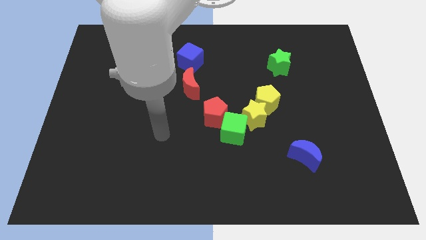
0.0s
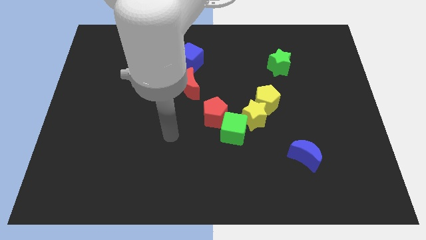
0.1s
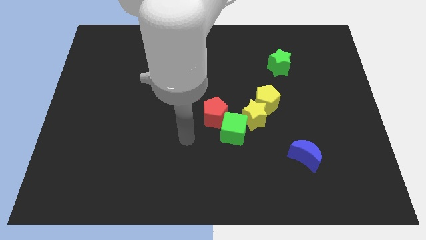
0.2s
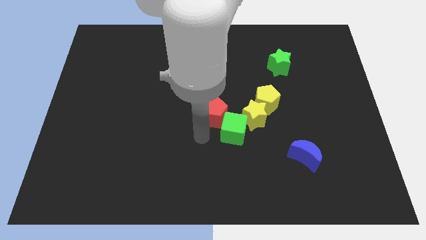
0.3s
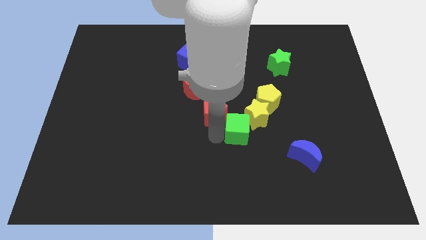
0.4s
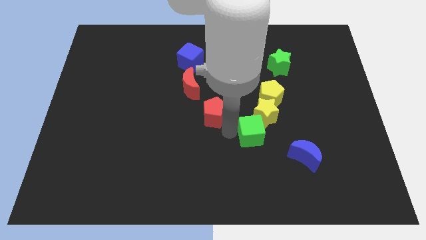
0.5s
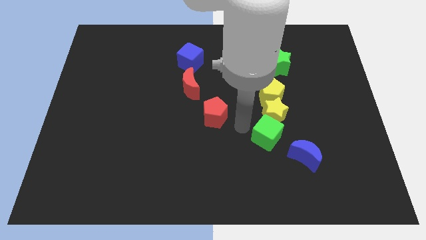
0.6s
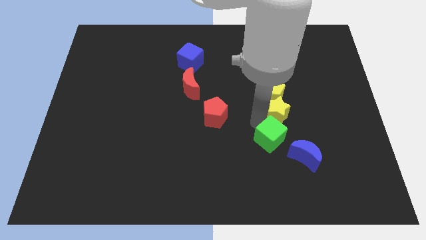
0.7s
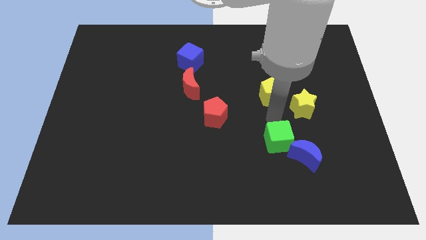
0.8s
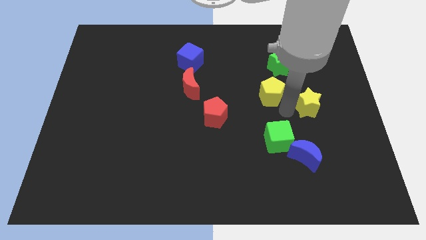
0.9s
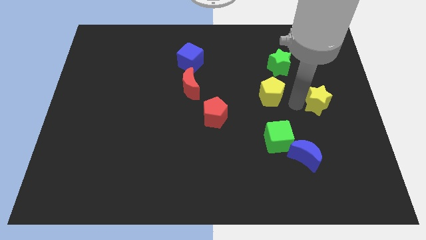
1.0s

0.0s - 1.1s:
move the yellow pentagon away from the yellow star

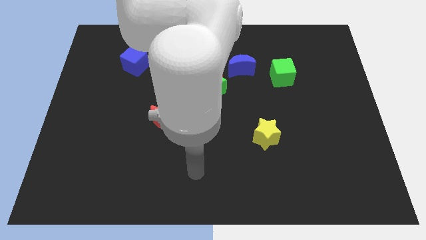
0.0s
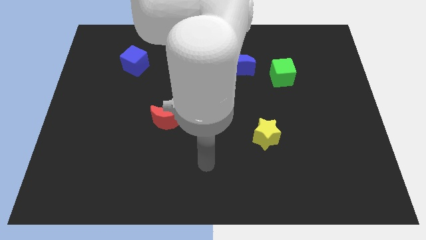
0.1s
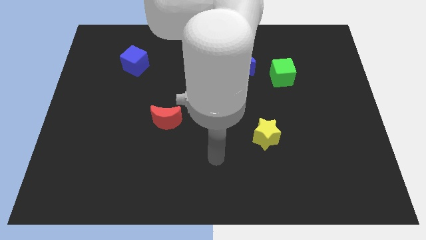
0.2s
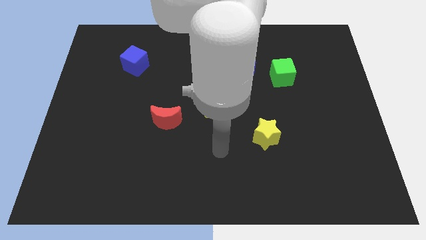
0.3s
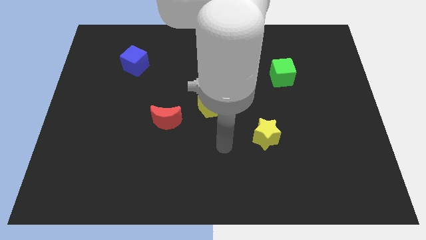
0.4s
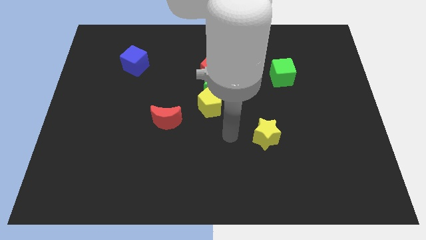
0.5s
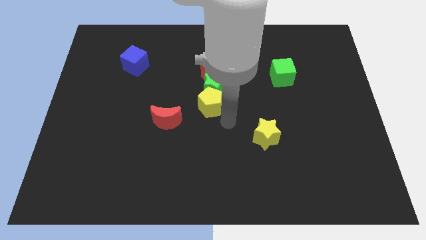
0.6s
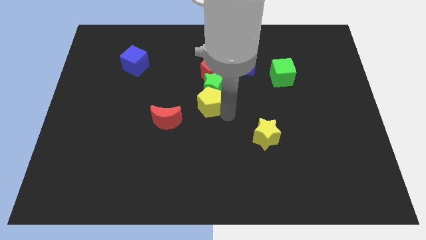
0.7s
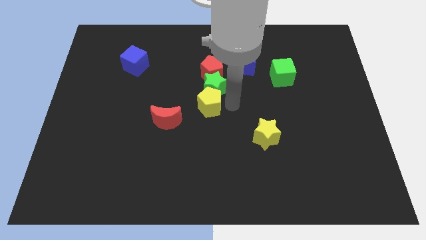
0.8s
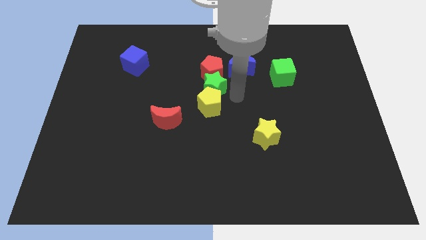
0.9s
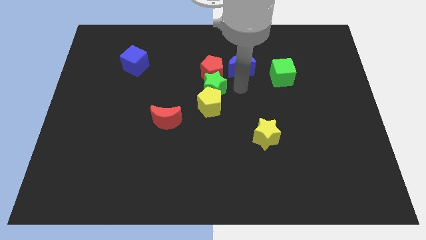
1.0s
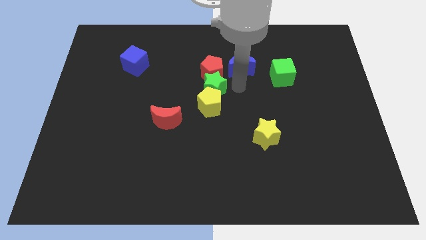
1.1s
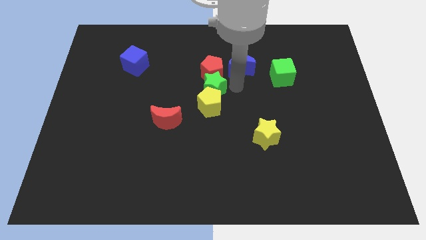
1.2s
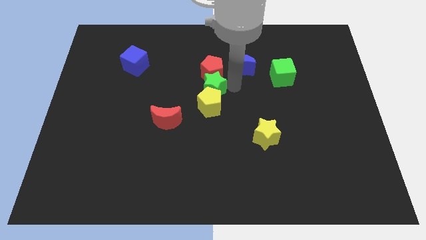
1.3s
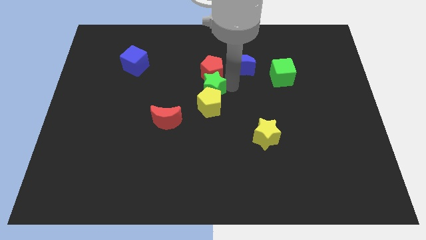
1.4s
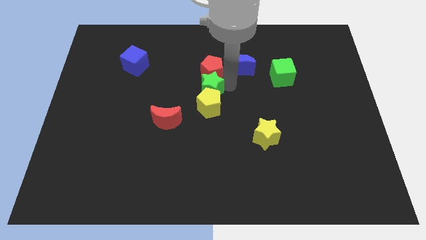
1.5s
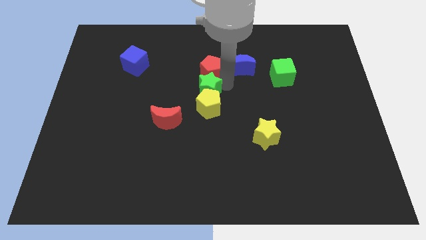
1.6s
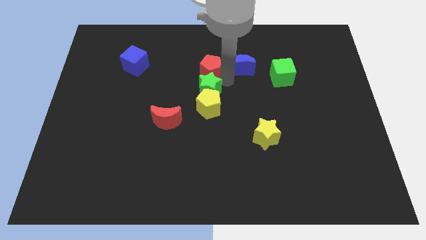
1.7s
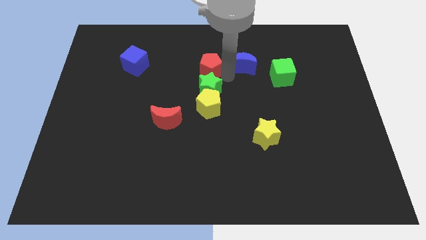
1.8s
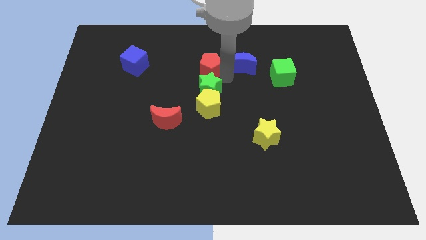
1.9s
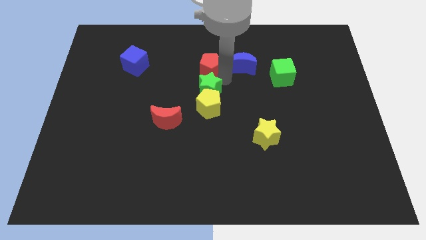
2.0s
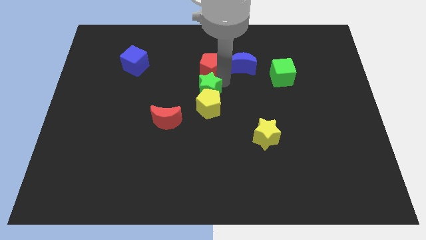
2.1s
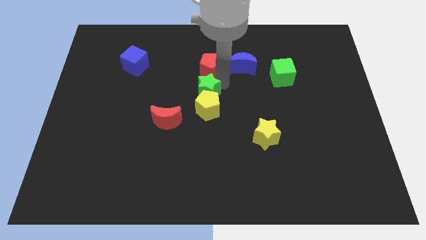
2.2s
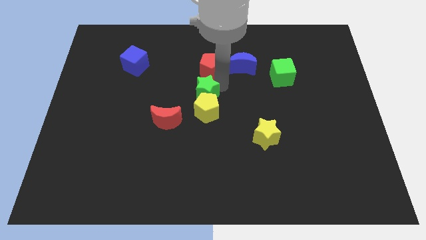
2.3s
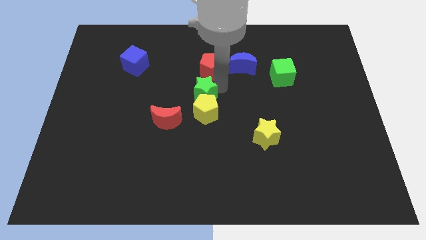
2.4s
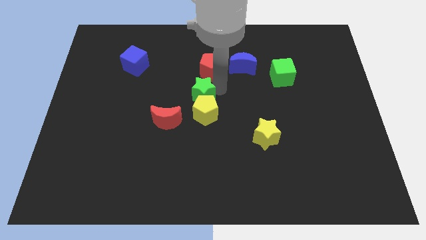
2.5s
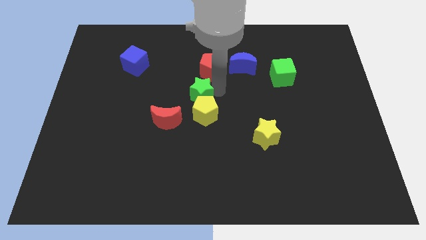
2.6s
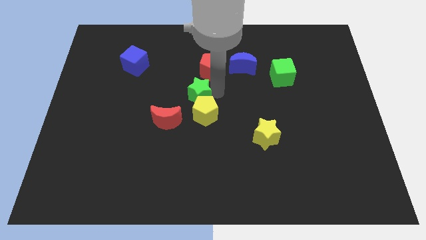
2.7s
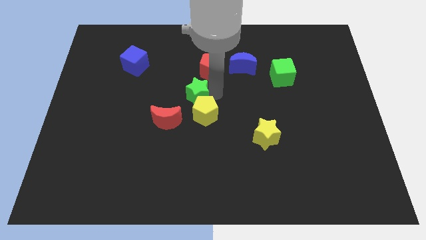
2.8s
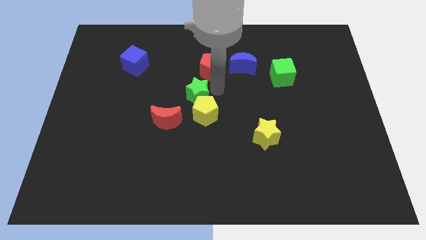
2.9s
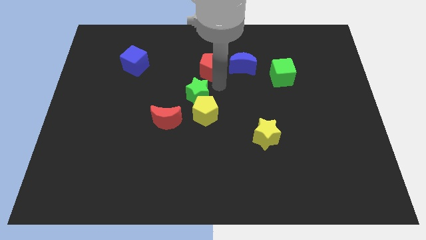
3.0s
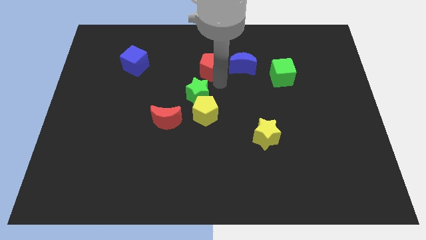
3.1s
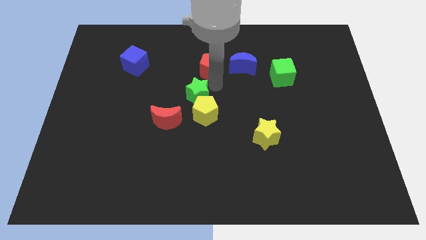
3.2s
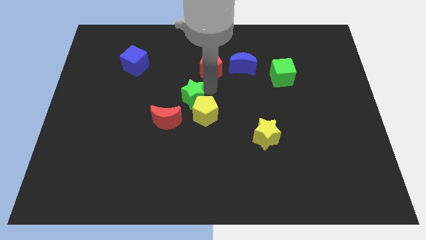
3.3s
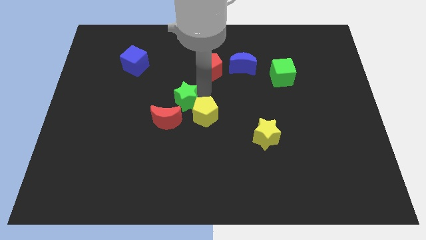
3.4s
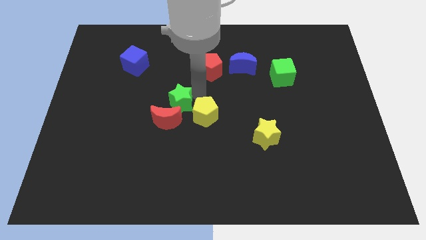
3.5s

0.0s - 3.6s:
separate the green star from the clump

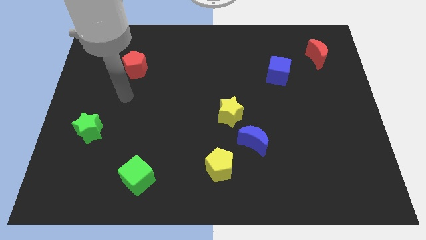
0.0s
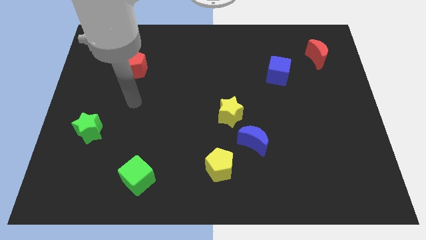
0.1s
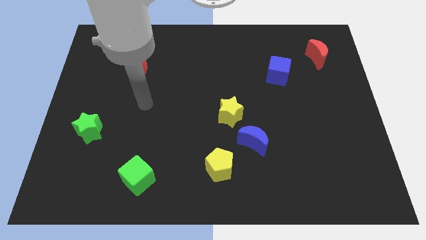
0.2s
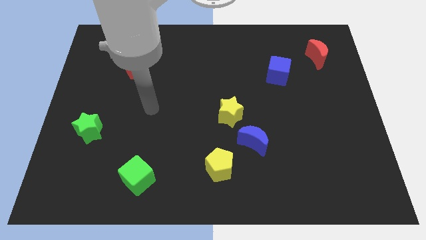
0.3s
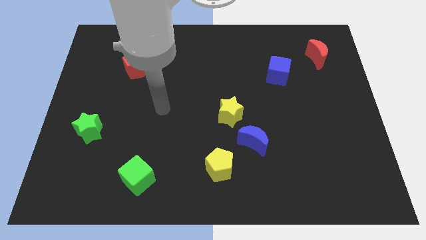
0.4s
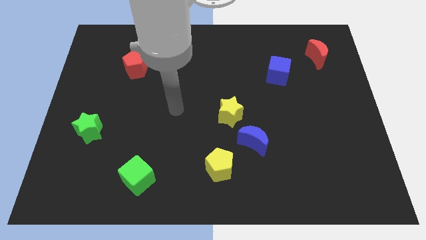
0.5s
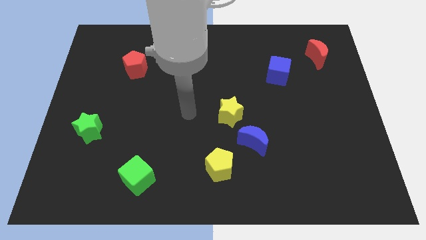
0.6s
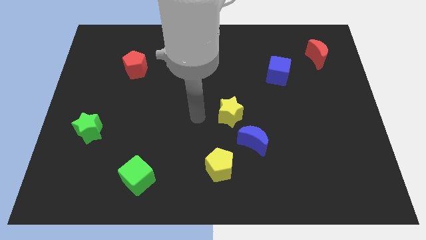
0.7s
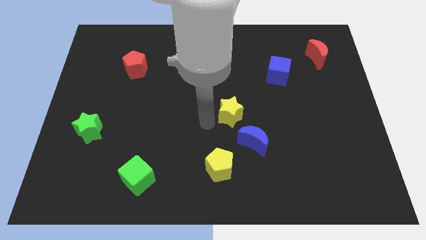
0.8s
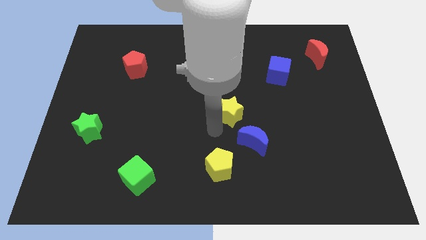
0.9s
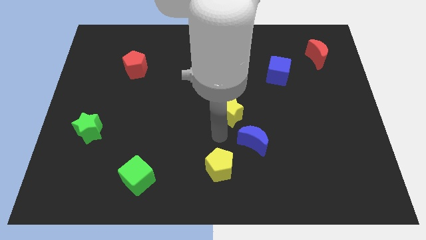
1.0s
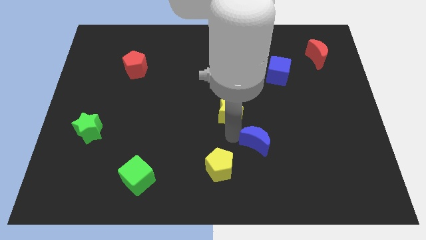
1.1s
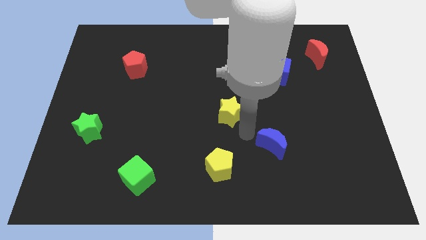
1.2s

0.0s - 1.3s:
move the yellow star away from the blue moon

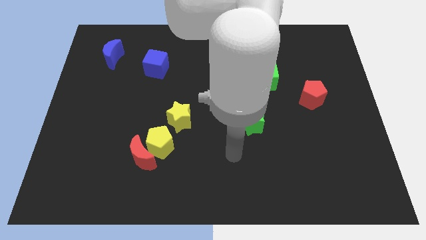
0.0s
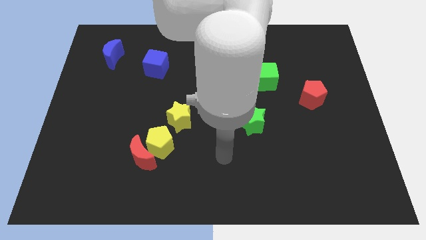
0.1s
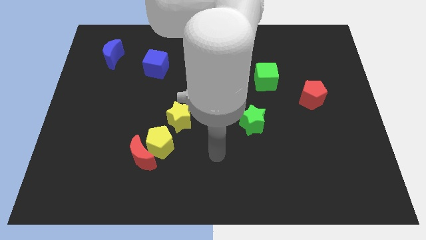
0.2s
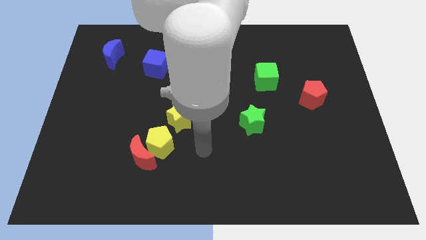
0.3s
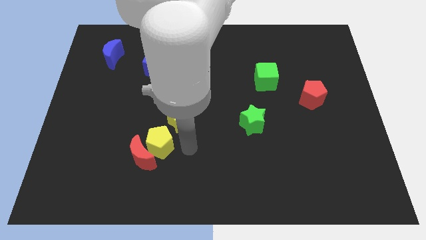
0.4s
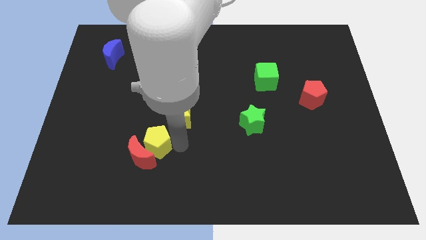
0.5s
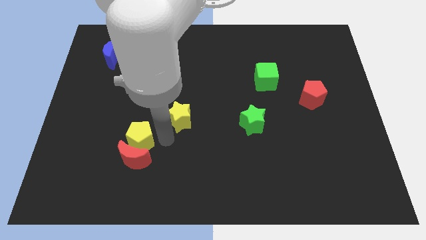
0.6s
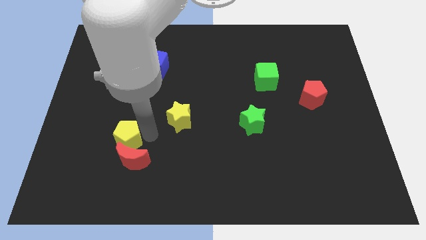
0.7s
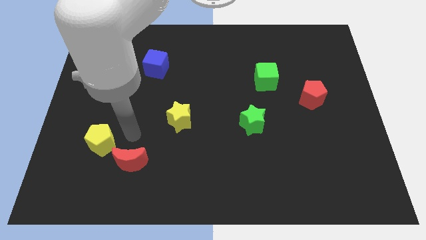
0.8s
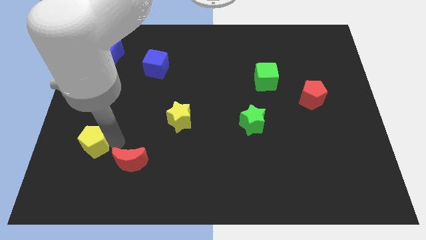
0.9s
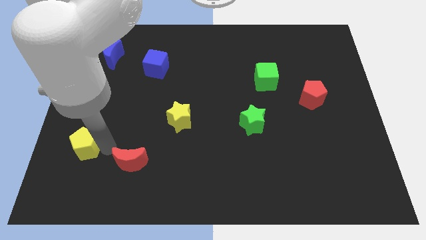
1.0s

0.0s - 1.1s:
separate the red moon from the yellow pentagon

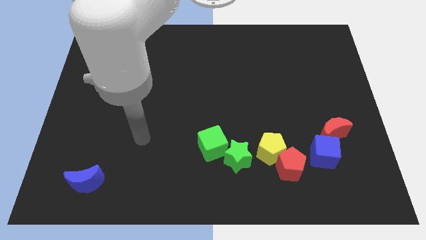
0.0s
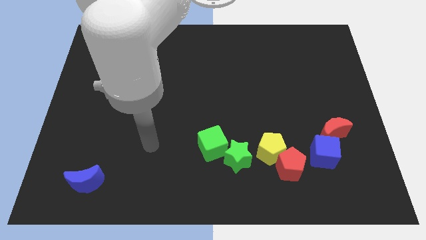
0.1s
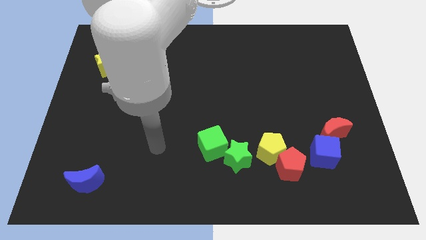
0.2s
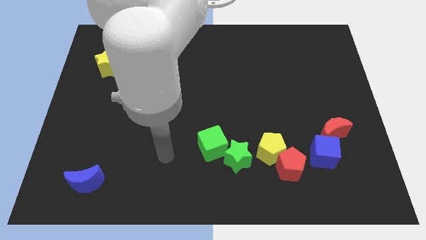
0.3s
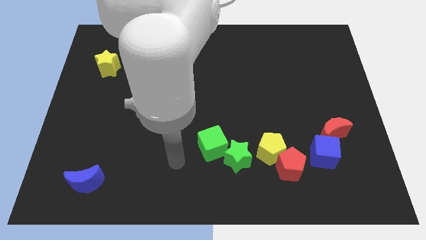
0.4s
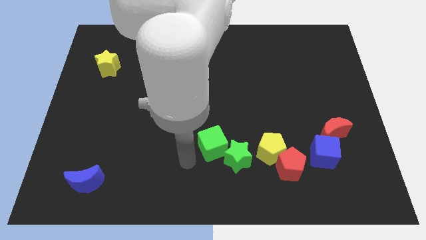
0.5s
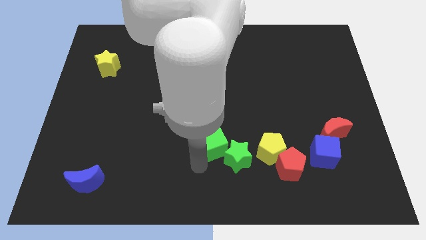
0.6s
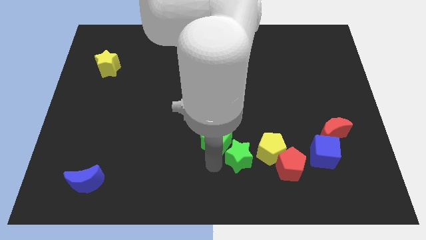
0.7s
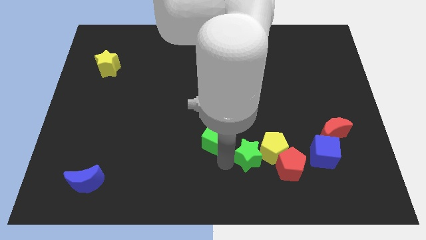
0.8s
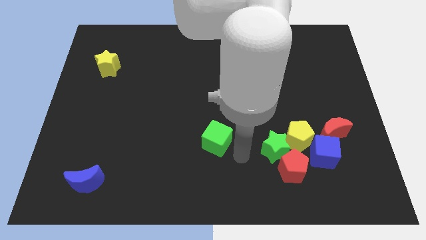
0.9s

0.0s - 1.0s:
move the green cube away from the green star

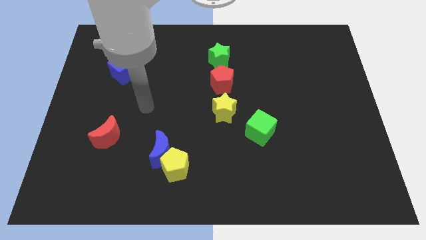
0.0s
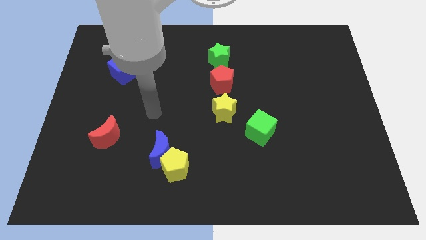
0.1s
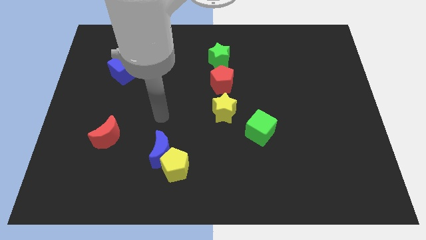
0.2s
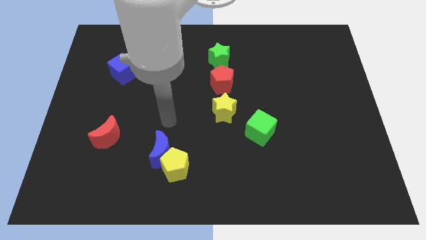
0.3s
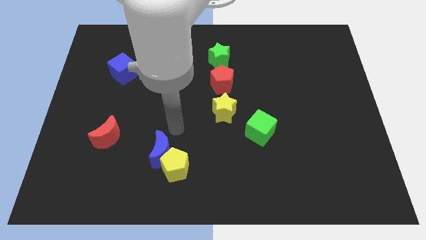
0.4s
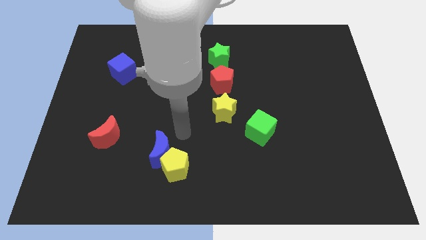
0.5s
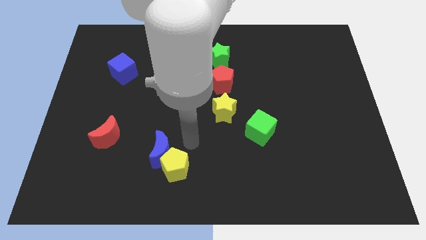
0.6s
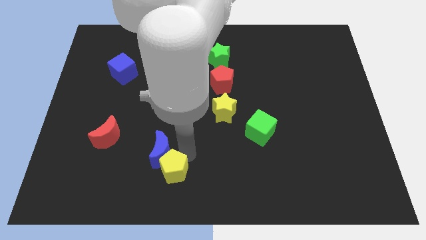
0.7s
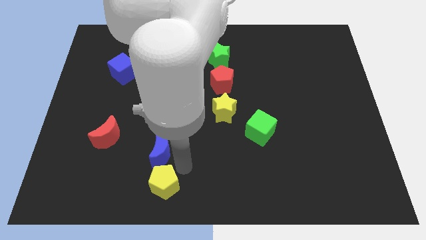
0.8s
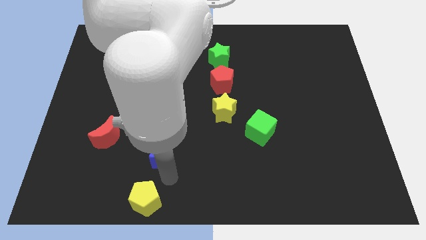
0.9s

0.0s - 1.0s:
pull the blue moon apart from the yellow pentagon

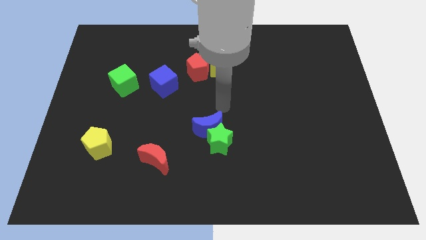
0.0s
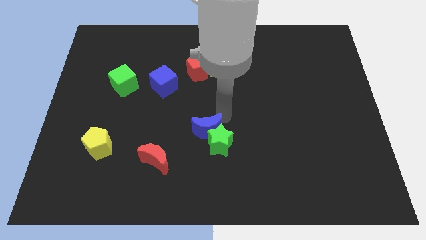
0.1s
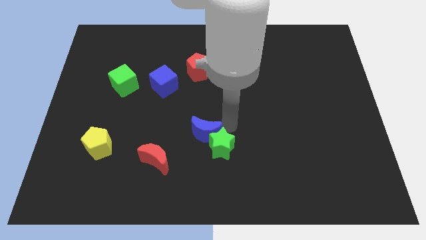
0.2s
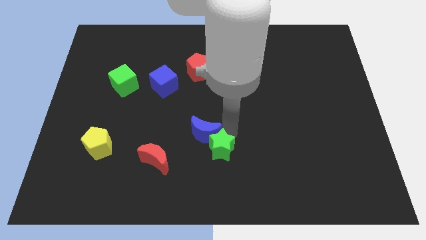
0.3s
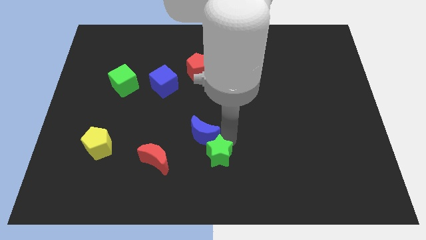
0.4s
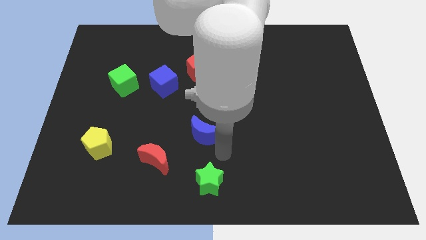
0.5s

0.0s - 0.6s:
move the blue moon away from the green star
